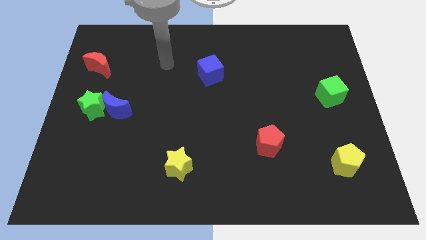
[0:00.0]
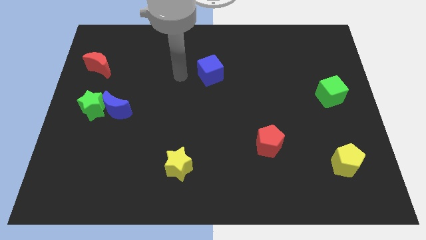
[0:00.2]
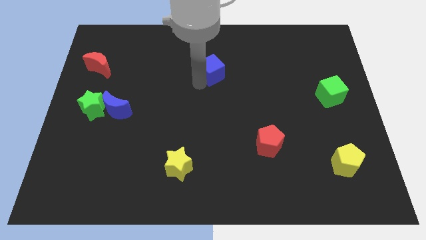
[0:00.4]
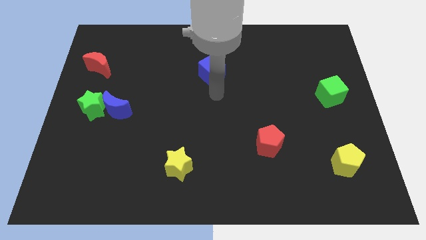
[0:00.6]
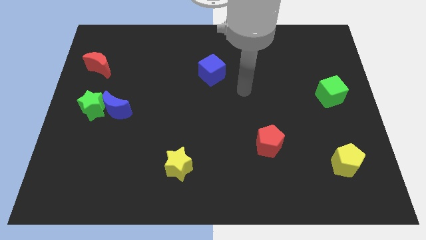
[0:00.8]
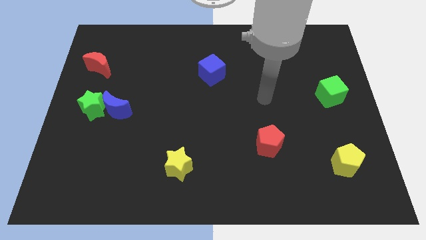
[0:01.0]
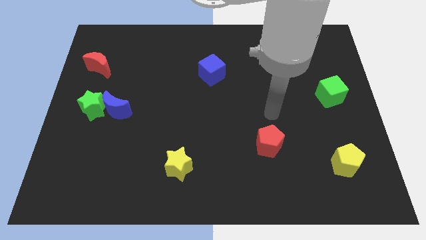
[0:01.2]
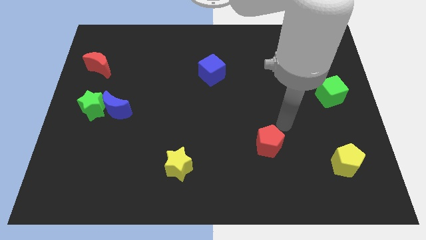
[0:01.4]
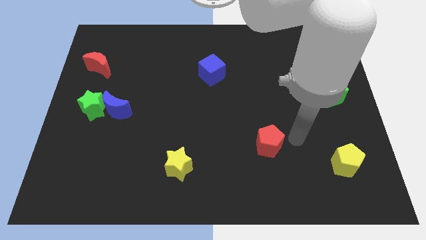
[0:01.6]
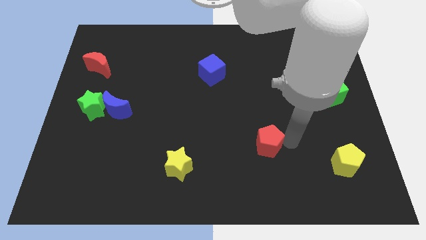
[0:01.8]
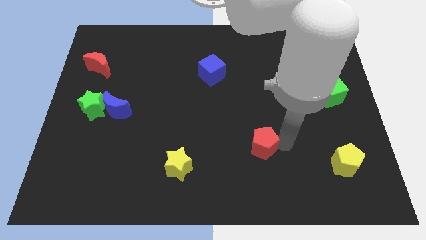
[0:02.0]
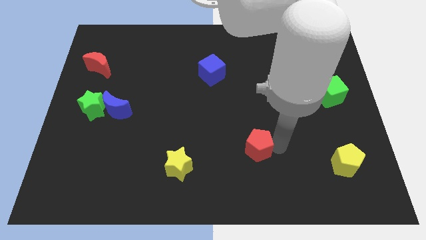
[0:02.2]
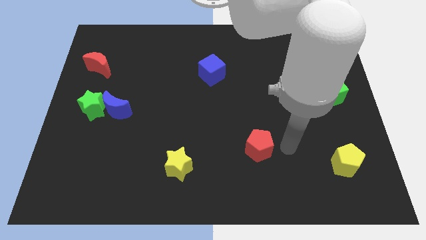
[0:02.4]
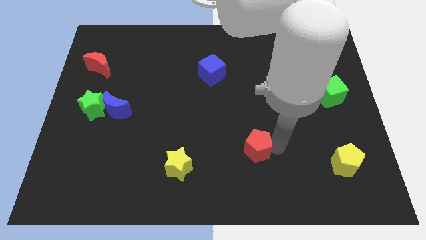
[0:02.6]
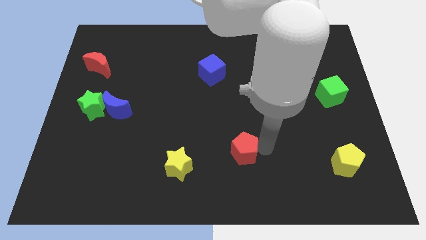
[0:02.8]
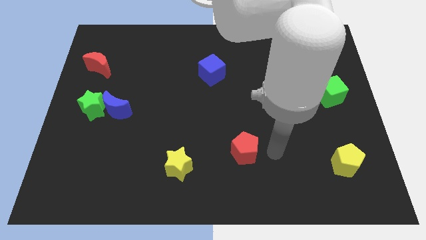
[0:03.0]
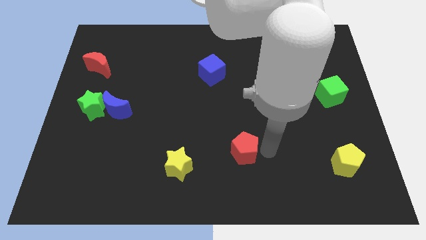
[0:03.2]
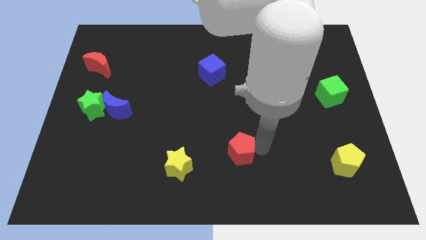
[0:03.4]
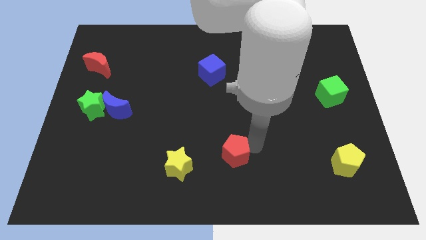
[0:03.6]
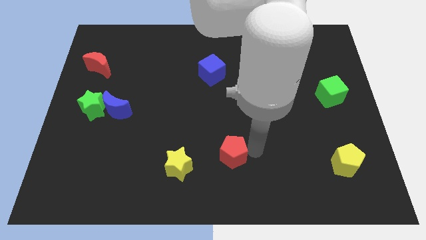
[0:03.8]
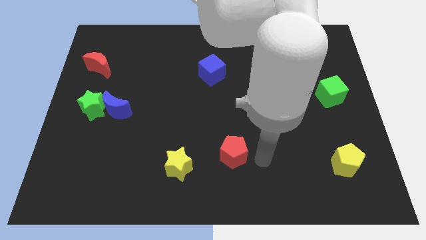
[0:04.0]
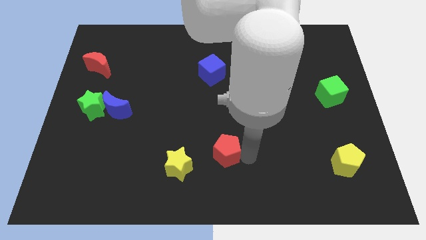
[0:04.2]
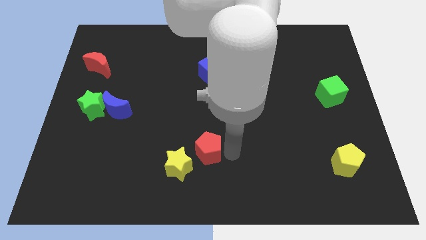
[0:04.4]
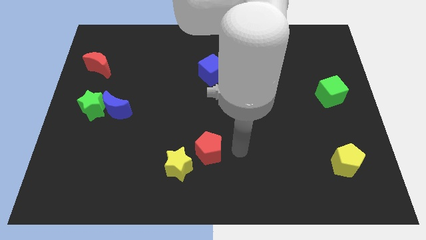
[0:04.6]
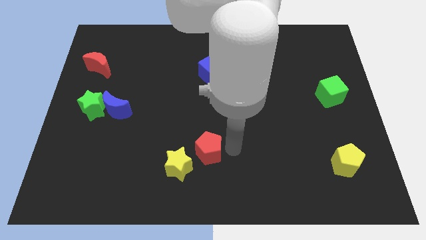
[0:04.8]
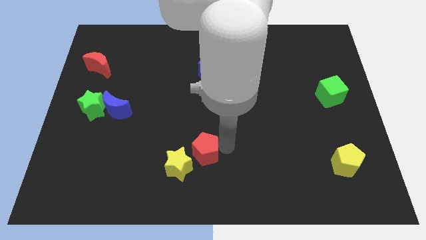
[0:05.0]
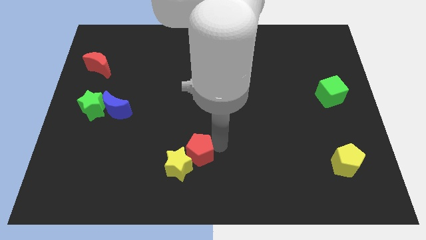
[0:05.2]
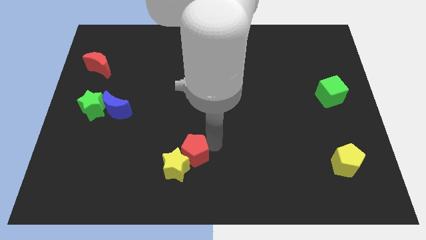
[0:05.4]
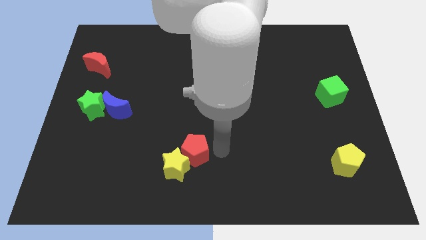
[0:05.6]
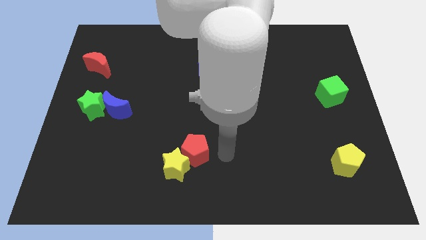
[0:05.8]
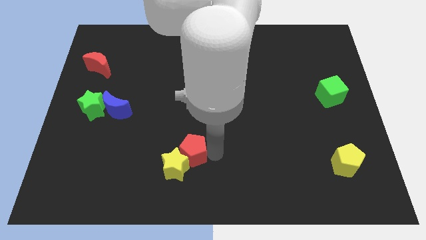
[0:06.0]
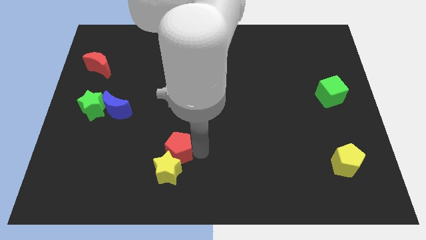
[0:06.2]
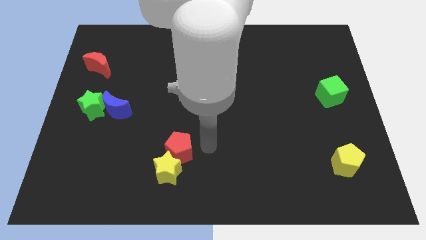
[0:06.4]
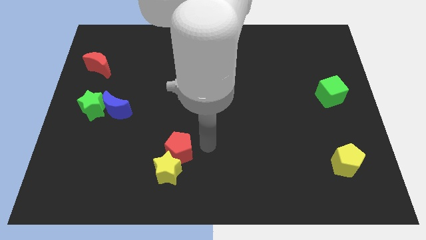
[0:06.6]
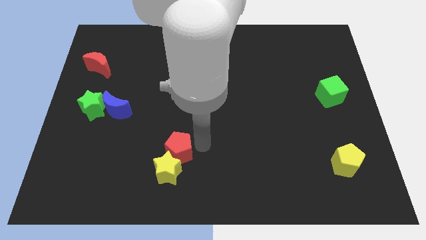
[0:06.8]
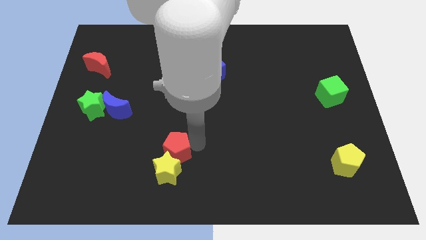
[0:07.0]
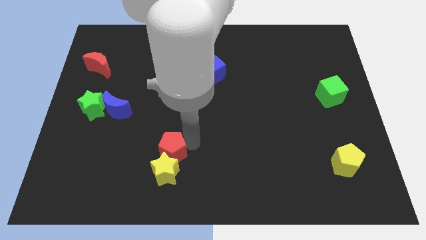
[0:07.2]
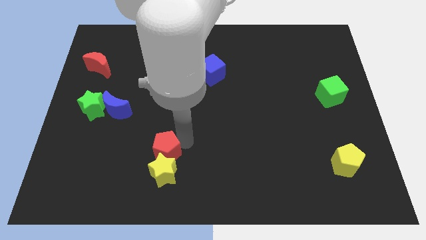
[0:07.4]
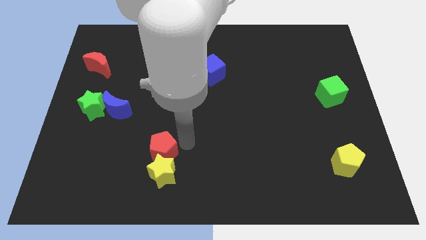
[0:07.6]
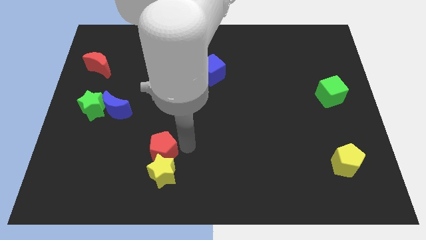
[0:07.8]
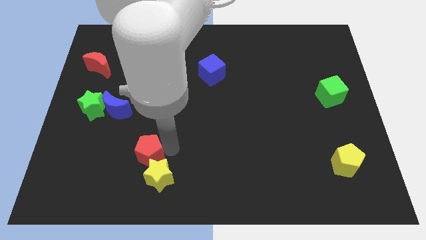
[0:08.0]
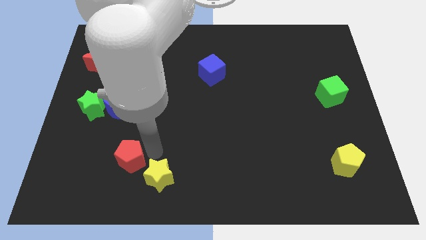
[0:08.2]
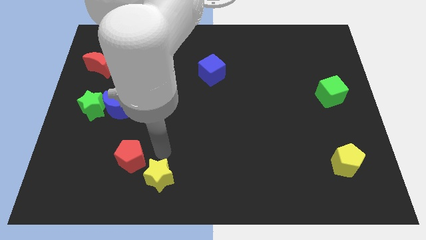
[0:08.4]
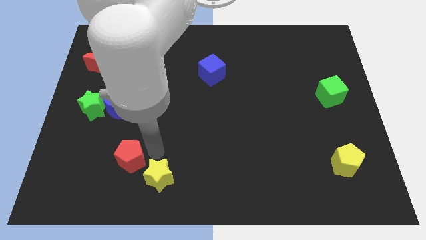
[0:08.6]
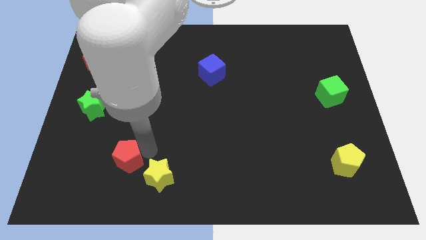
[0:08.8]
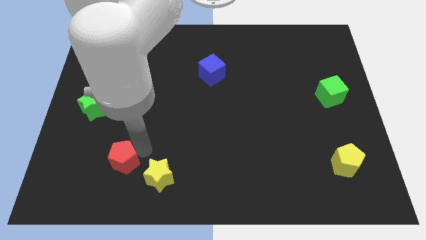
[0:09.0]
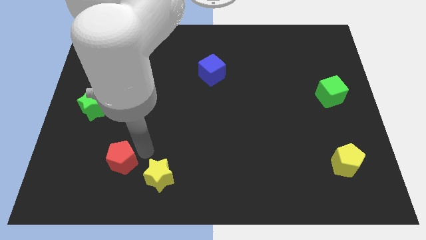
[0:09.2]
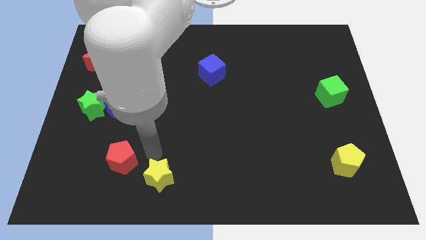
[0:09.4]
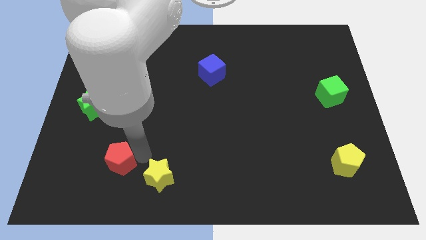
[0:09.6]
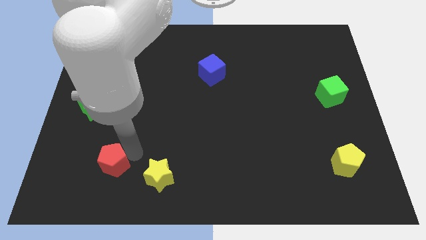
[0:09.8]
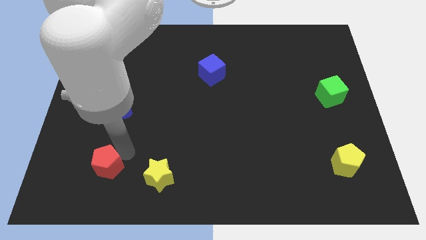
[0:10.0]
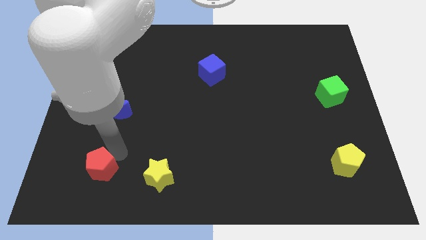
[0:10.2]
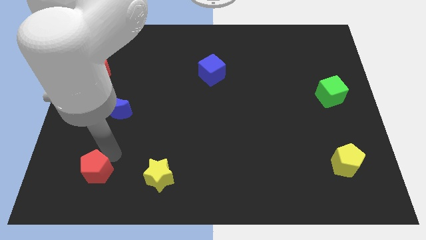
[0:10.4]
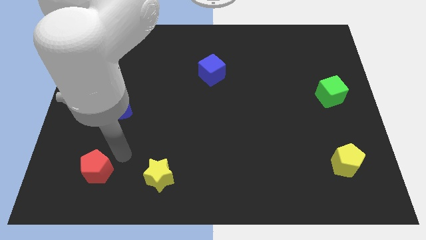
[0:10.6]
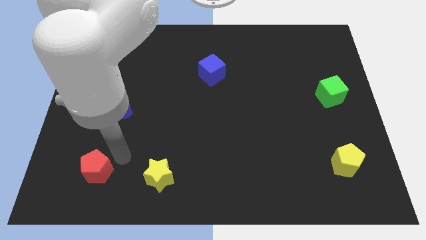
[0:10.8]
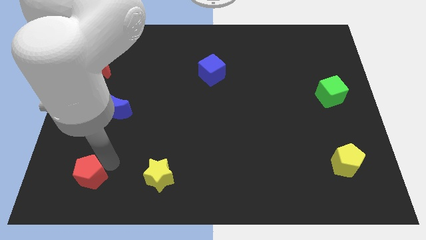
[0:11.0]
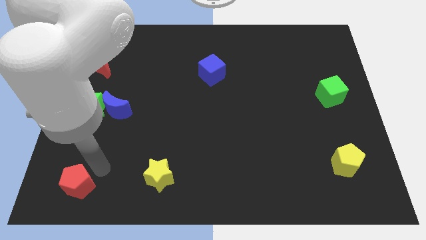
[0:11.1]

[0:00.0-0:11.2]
slide the red pentagon to the lower left corner
